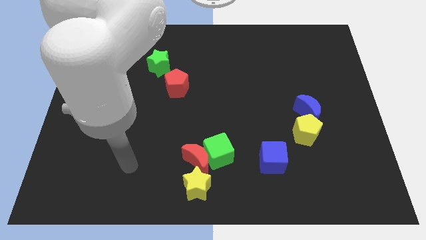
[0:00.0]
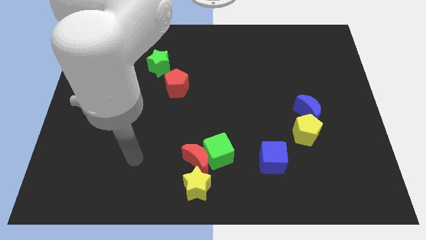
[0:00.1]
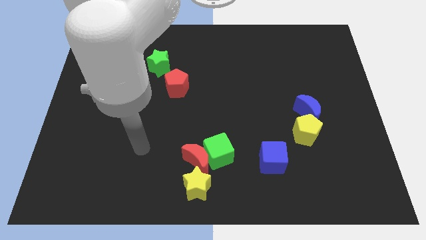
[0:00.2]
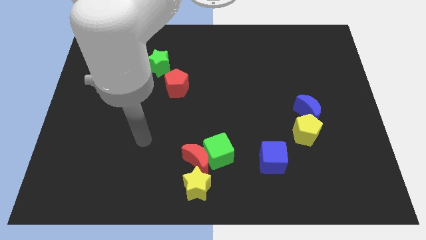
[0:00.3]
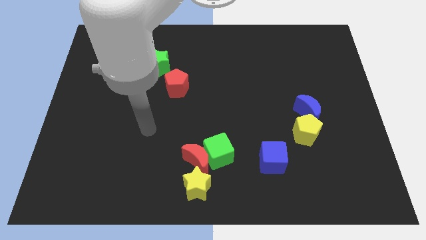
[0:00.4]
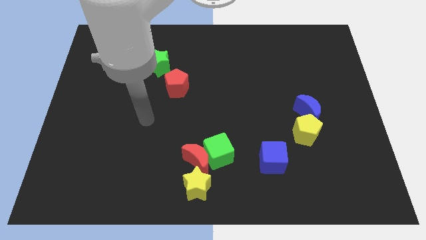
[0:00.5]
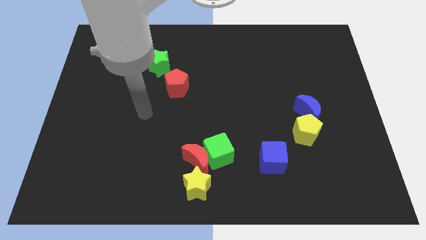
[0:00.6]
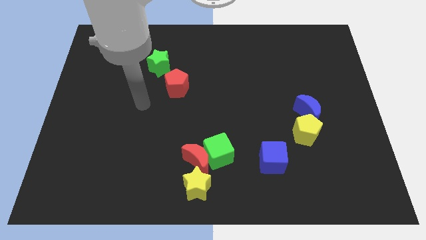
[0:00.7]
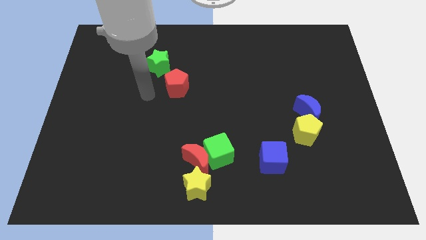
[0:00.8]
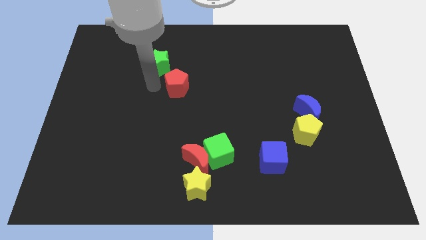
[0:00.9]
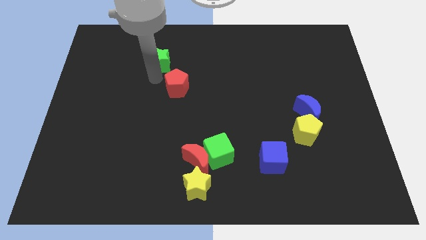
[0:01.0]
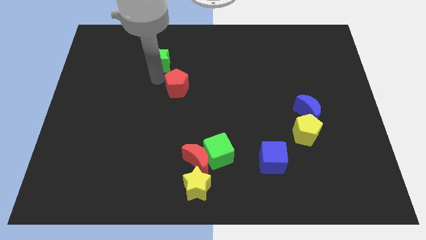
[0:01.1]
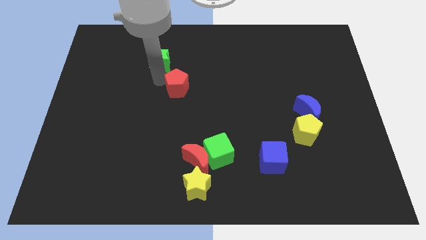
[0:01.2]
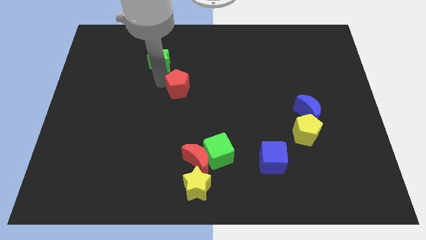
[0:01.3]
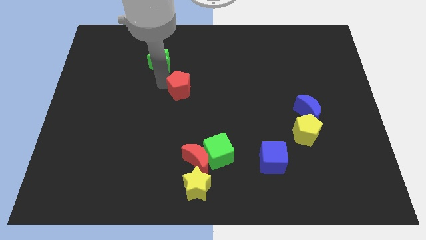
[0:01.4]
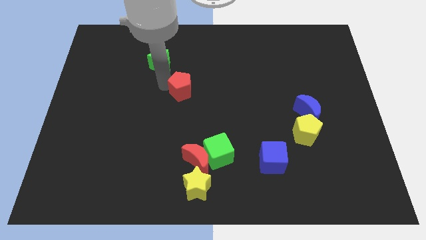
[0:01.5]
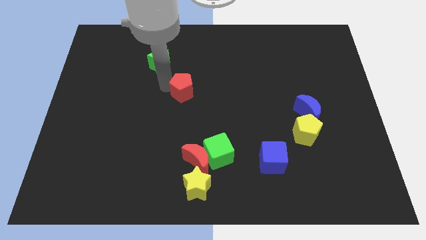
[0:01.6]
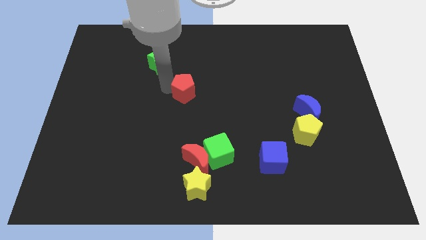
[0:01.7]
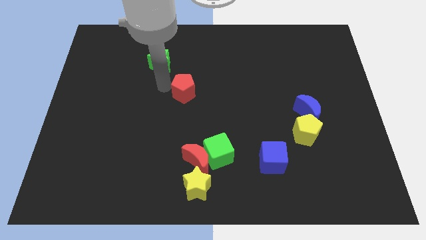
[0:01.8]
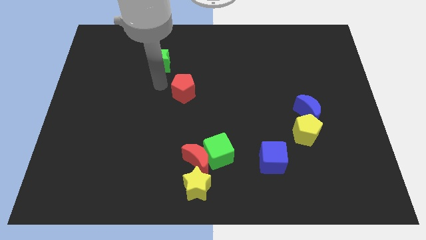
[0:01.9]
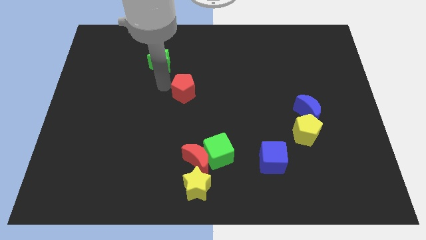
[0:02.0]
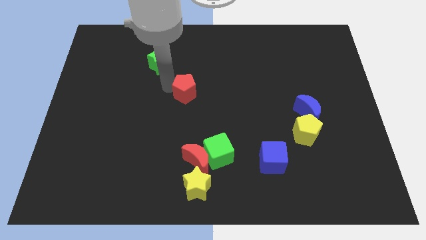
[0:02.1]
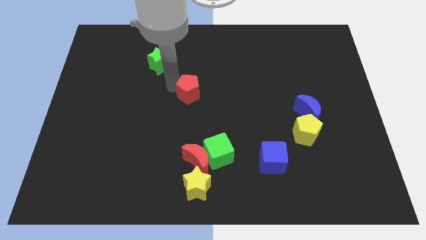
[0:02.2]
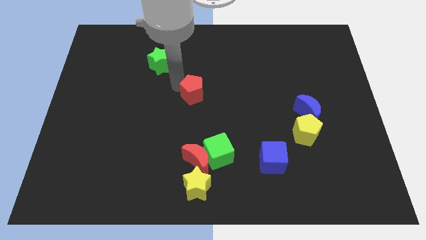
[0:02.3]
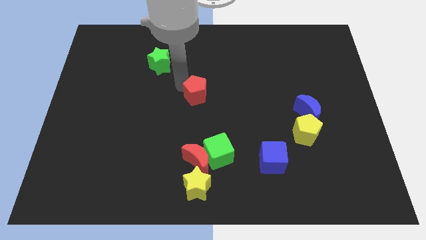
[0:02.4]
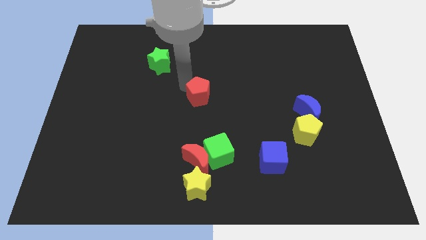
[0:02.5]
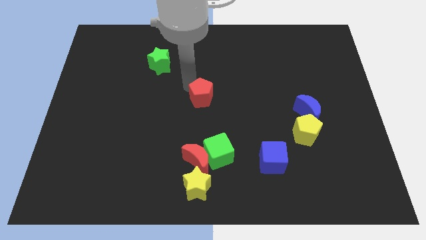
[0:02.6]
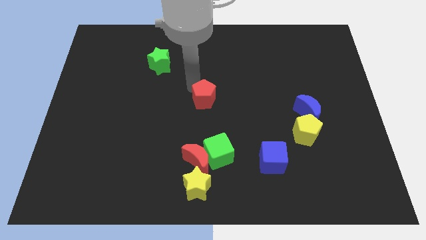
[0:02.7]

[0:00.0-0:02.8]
slightly slide the red pentagon diagonally down and right

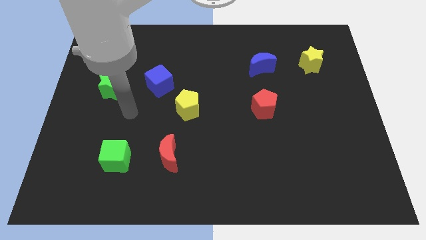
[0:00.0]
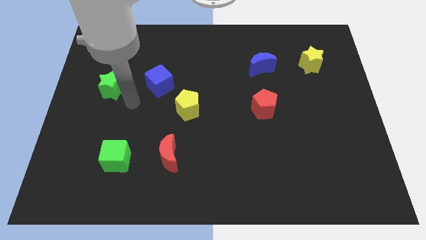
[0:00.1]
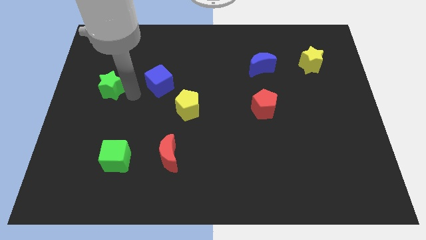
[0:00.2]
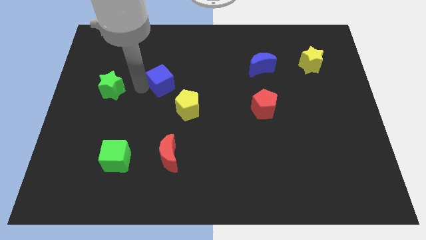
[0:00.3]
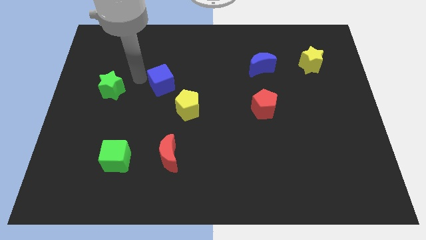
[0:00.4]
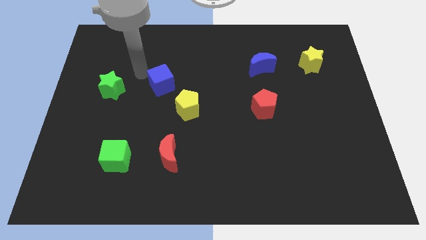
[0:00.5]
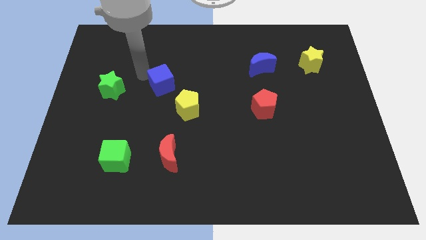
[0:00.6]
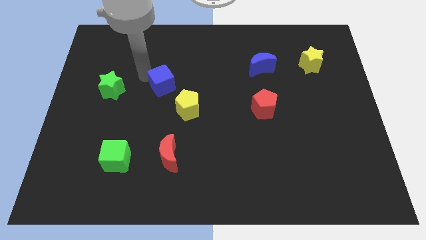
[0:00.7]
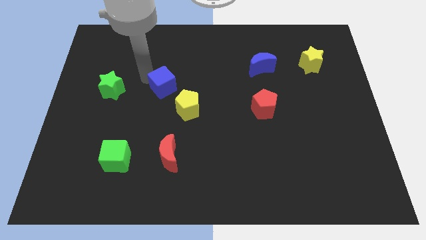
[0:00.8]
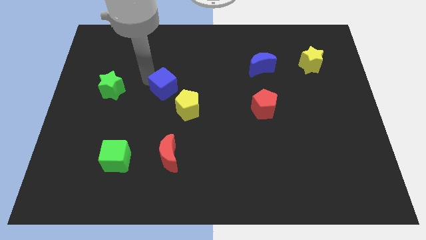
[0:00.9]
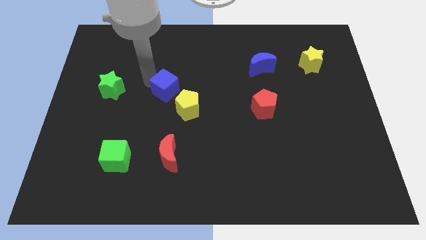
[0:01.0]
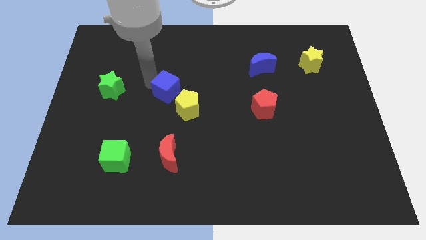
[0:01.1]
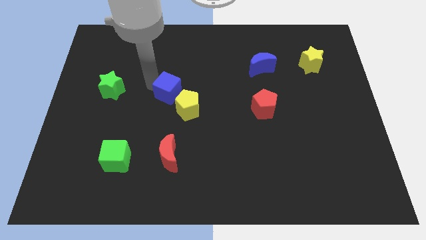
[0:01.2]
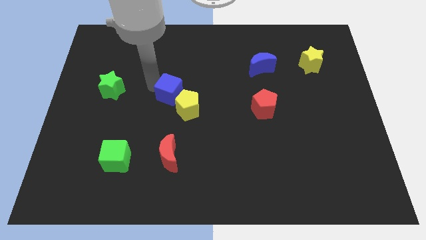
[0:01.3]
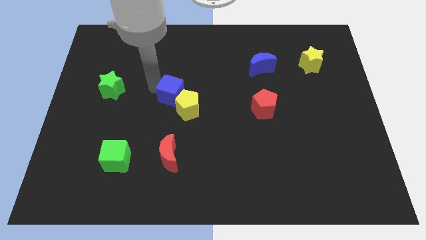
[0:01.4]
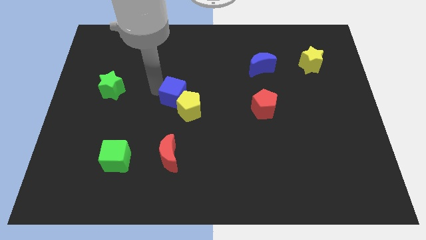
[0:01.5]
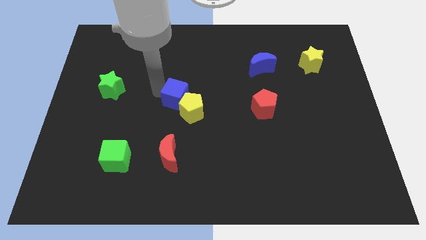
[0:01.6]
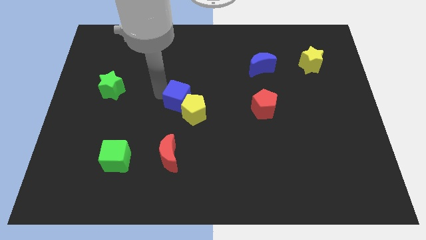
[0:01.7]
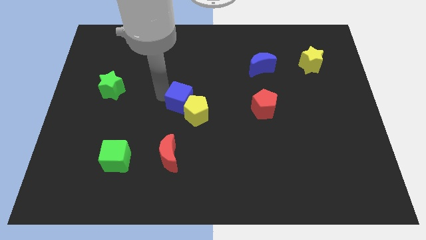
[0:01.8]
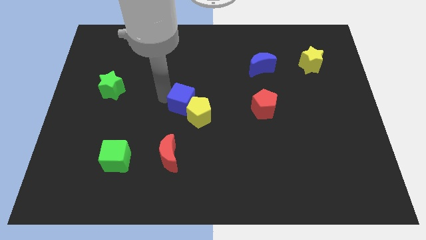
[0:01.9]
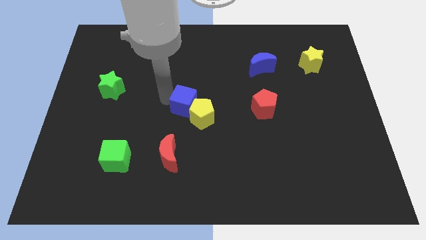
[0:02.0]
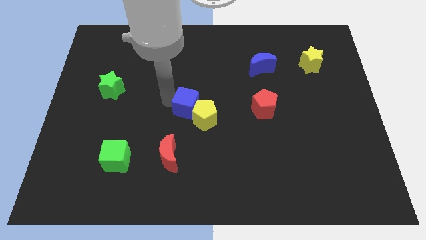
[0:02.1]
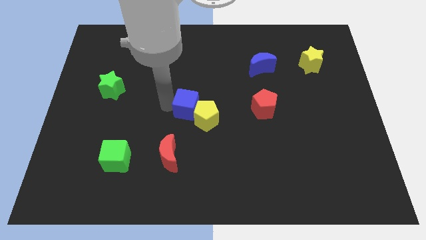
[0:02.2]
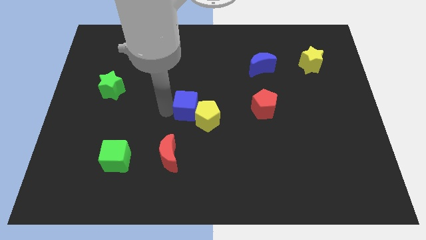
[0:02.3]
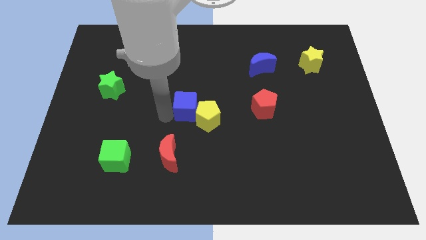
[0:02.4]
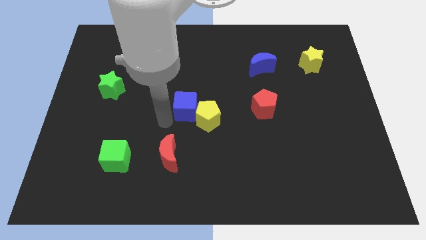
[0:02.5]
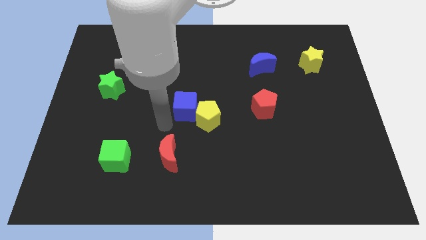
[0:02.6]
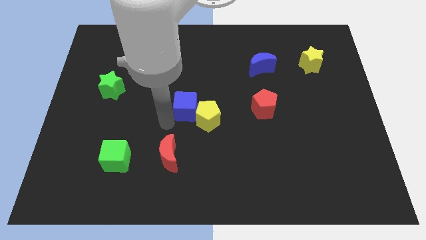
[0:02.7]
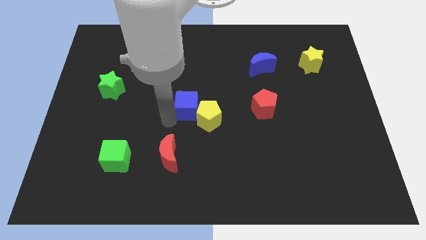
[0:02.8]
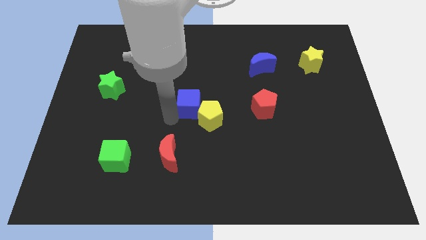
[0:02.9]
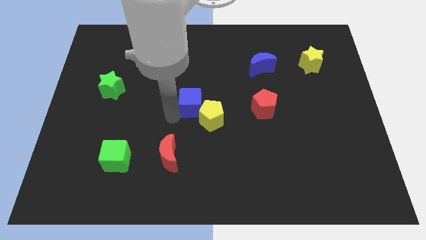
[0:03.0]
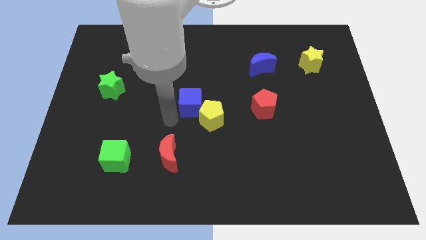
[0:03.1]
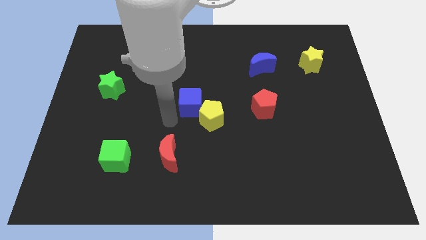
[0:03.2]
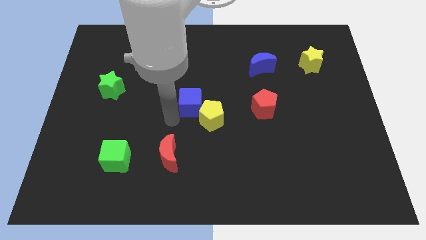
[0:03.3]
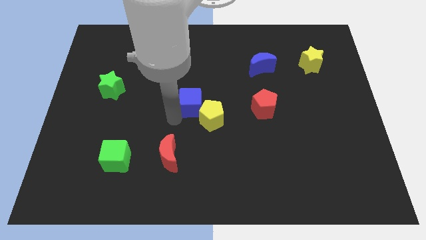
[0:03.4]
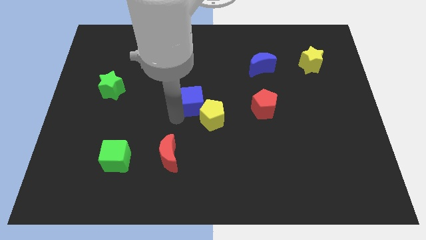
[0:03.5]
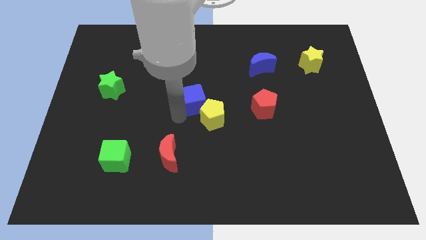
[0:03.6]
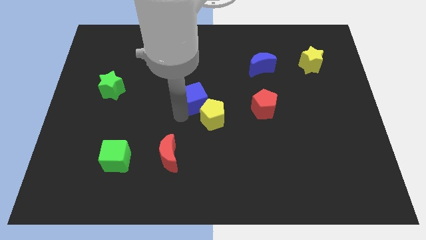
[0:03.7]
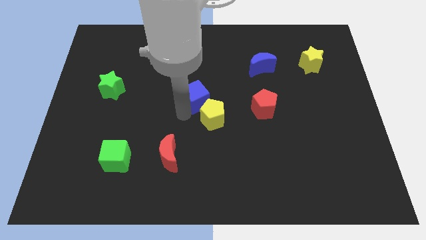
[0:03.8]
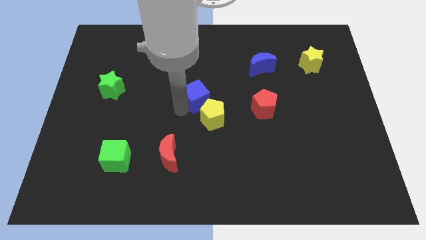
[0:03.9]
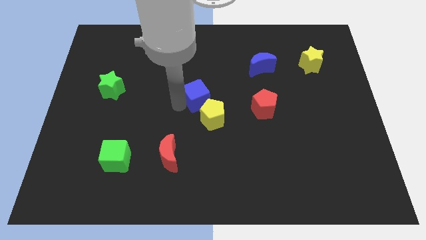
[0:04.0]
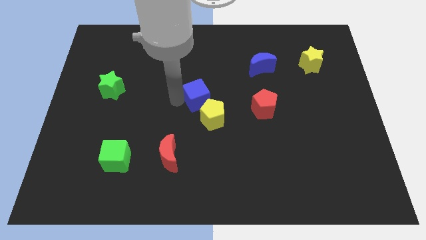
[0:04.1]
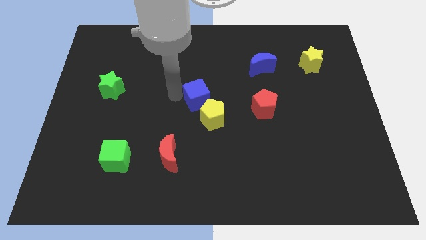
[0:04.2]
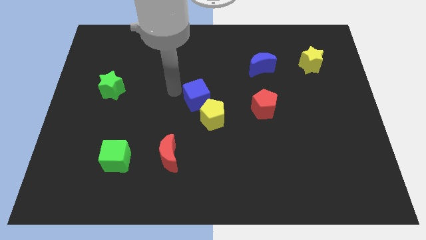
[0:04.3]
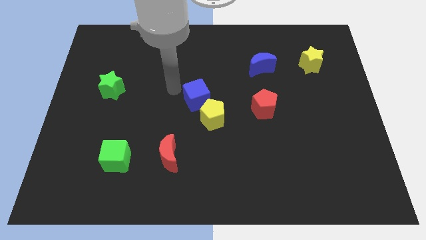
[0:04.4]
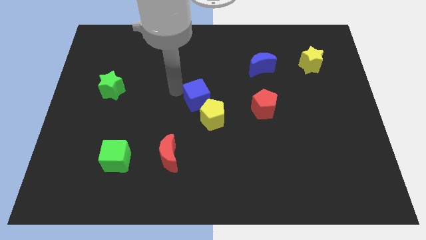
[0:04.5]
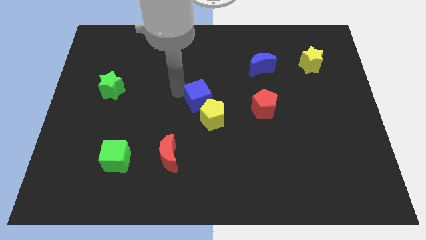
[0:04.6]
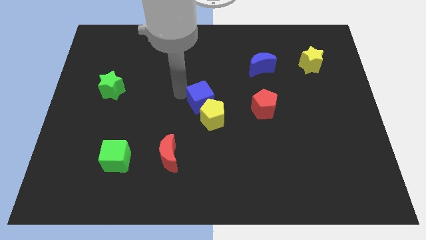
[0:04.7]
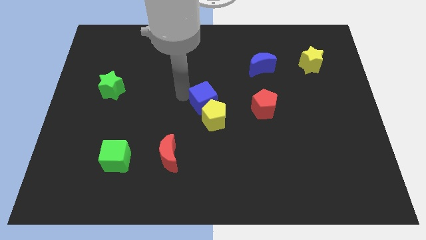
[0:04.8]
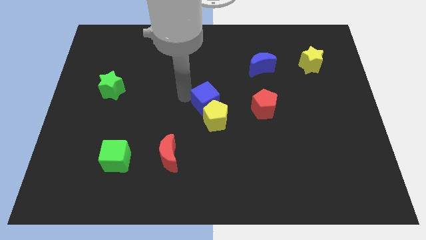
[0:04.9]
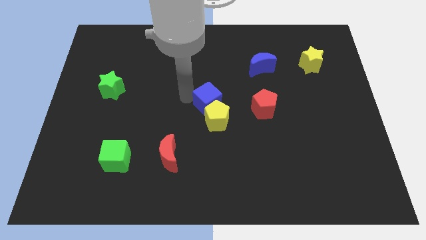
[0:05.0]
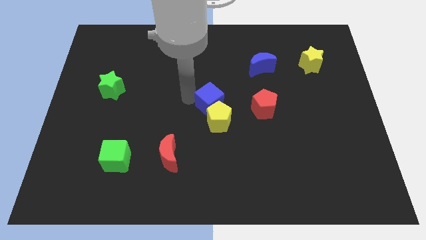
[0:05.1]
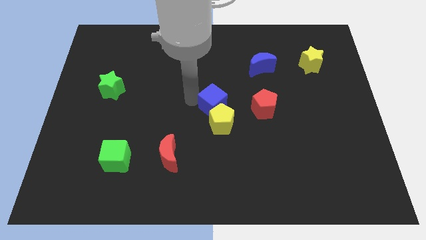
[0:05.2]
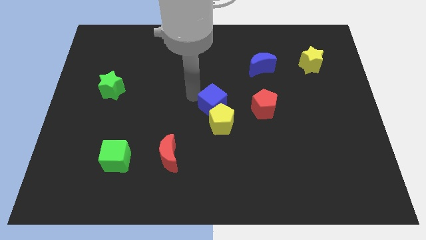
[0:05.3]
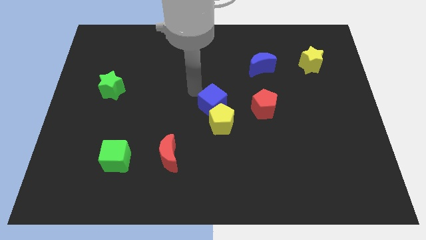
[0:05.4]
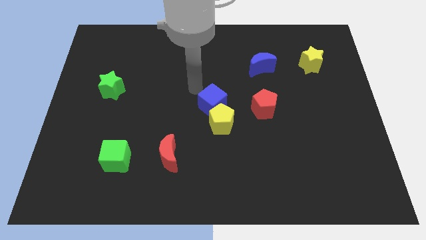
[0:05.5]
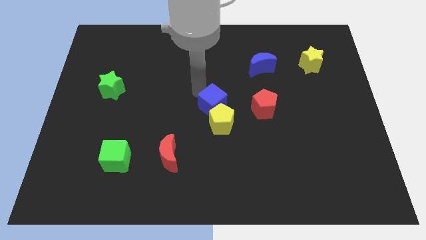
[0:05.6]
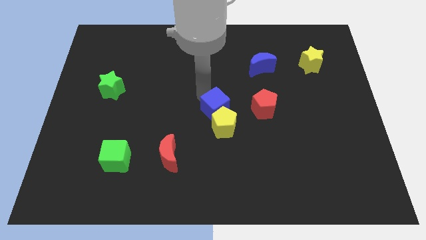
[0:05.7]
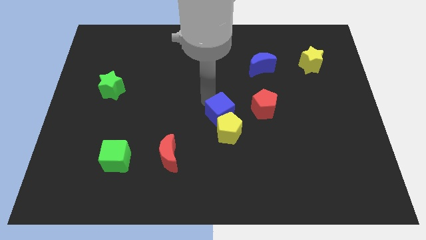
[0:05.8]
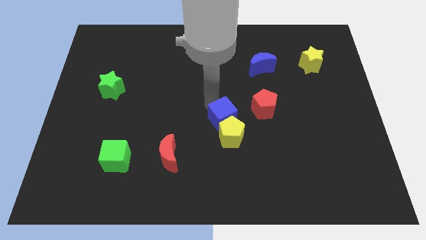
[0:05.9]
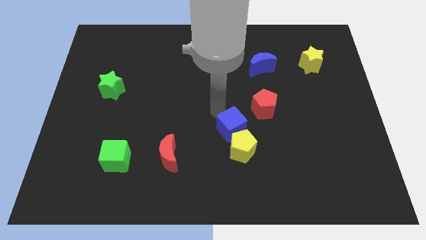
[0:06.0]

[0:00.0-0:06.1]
push the blue cube downwards and then right
